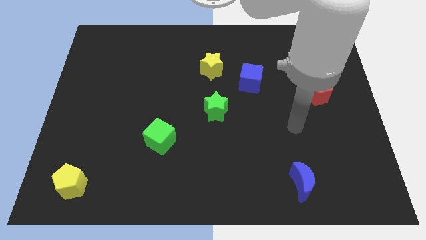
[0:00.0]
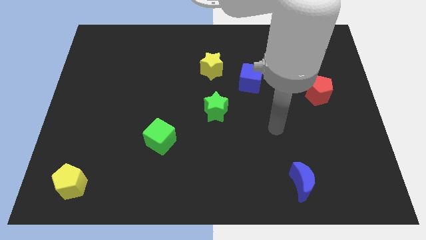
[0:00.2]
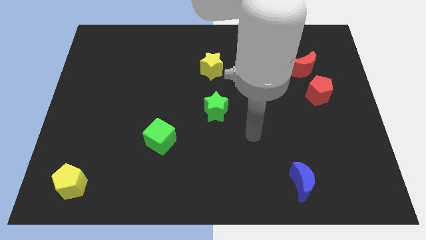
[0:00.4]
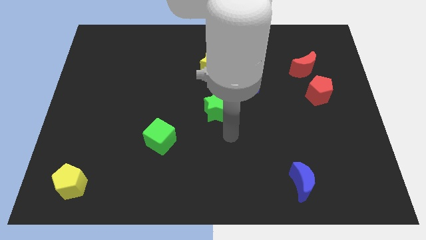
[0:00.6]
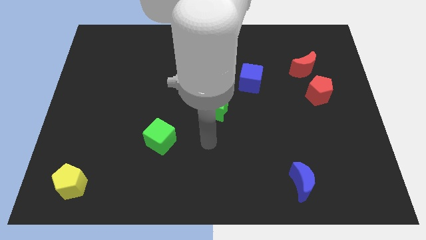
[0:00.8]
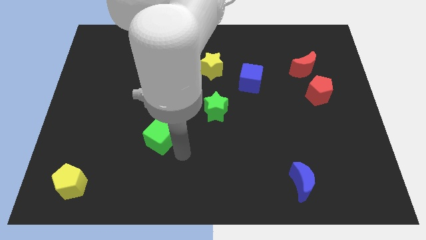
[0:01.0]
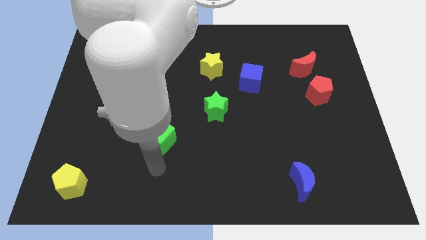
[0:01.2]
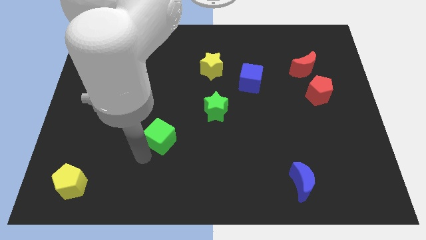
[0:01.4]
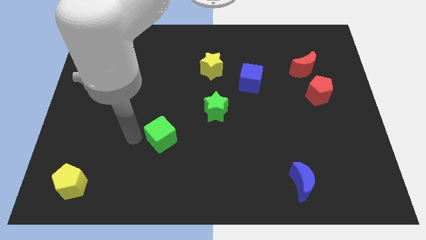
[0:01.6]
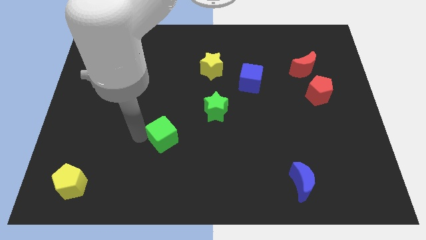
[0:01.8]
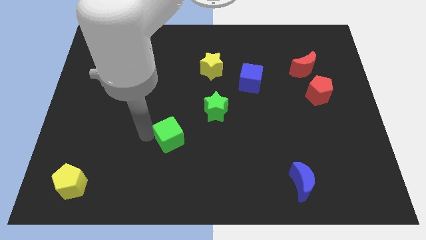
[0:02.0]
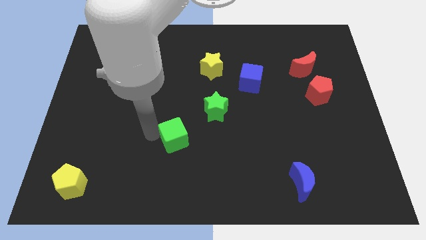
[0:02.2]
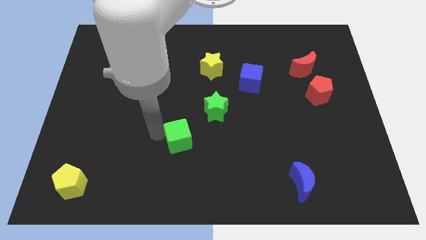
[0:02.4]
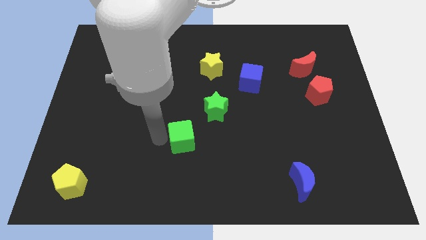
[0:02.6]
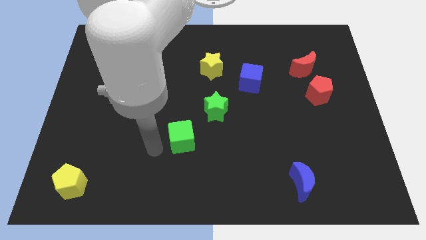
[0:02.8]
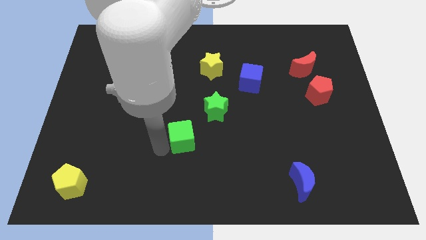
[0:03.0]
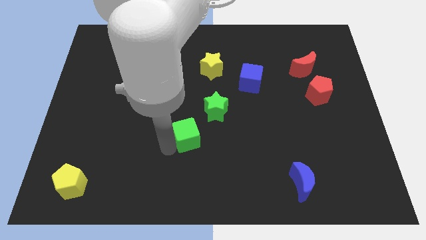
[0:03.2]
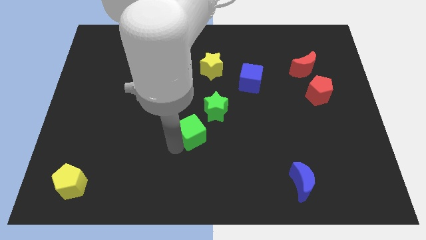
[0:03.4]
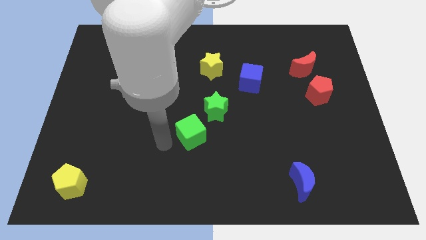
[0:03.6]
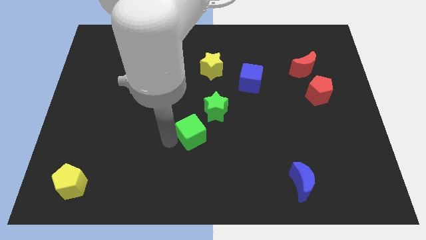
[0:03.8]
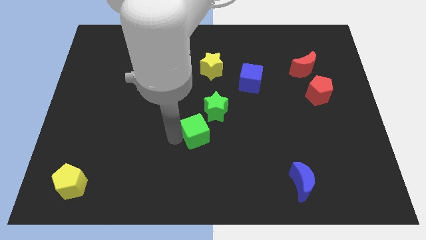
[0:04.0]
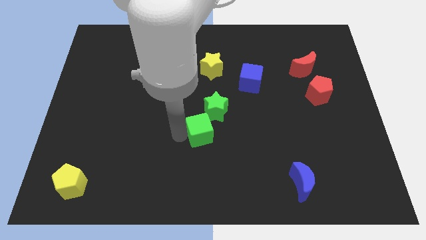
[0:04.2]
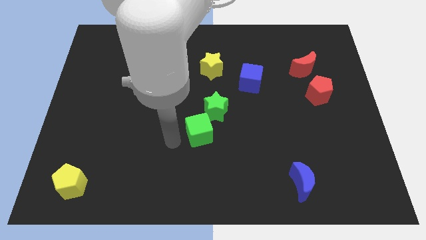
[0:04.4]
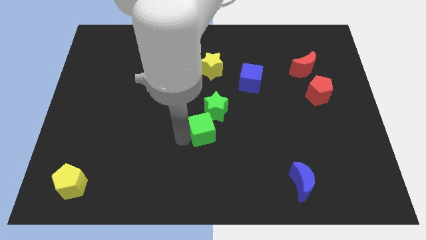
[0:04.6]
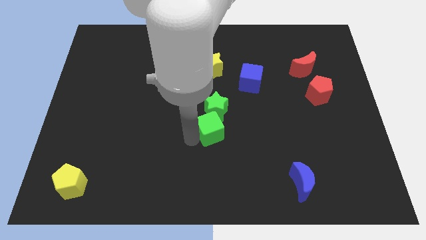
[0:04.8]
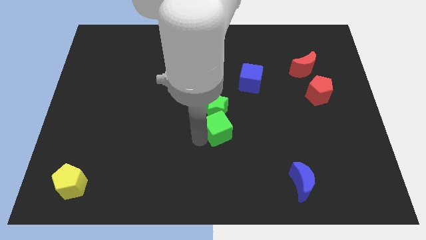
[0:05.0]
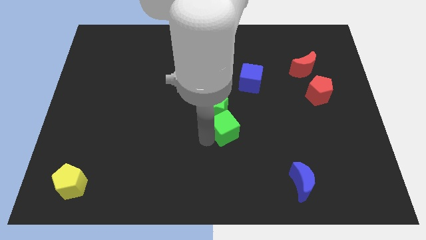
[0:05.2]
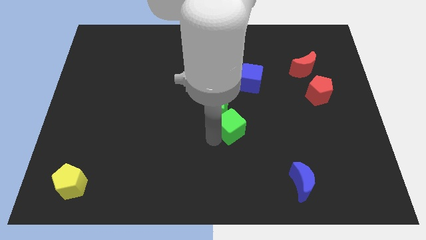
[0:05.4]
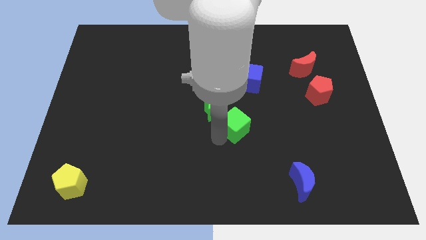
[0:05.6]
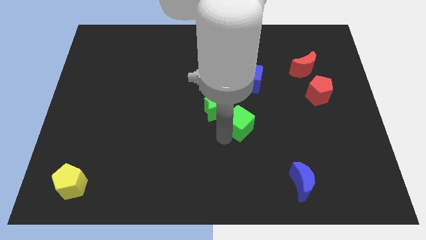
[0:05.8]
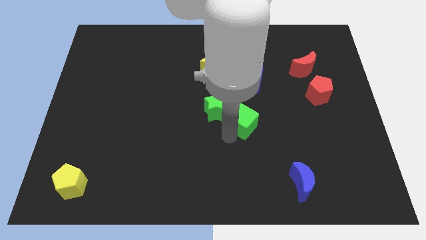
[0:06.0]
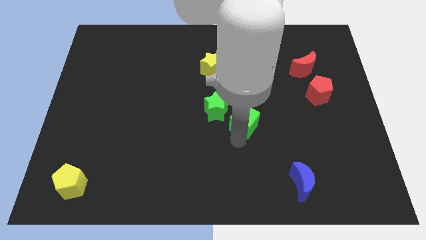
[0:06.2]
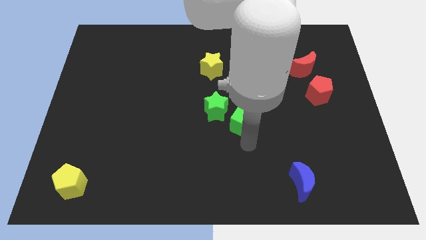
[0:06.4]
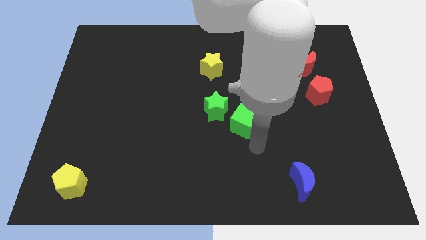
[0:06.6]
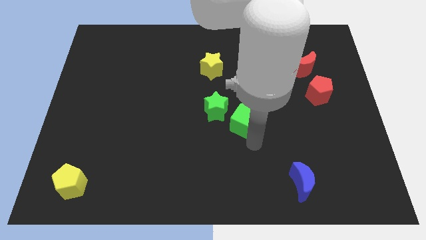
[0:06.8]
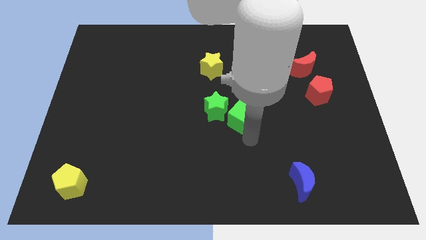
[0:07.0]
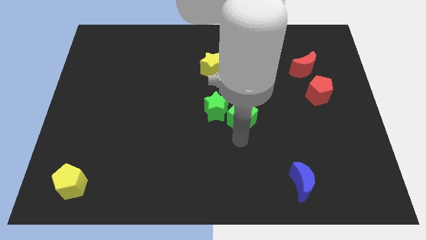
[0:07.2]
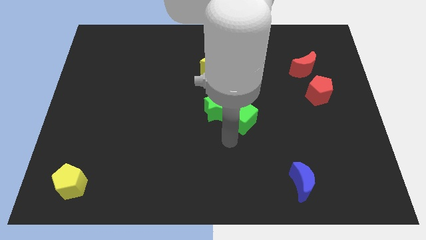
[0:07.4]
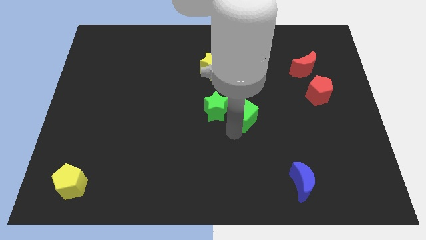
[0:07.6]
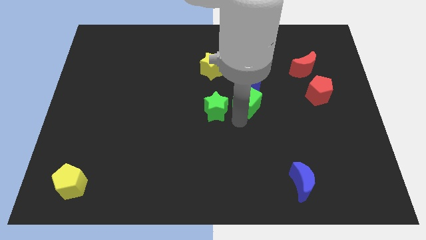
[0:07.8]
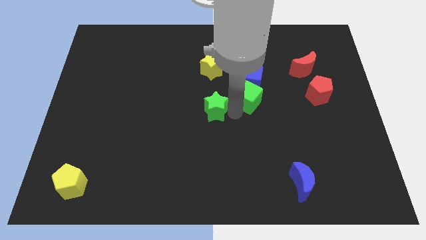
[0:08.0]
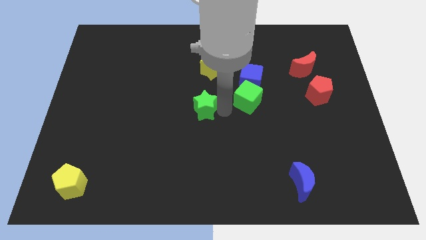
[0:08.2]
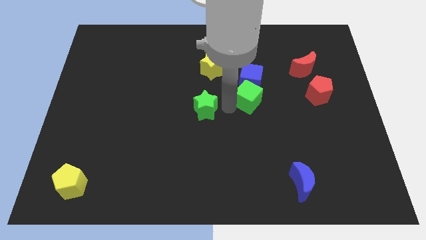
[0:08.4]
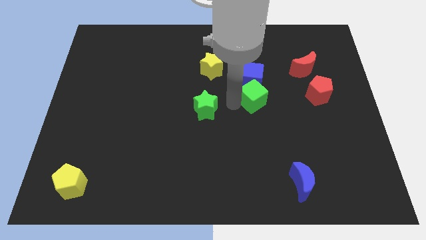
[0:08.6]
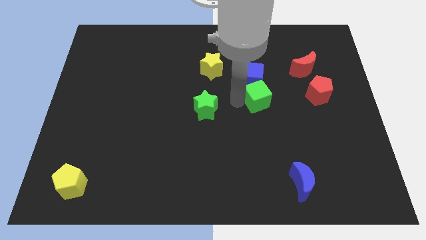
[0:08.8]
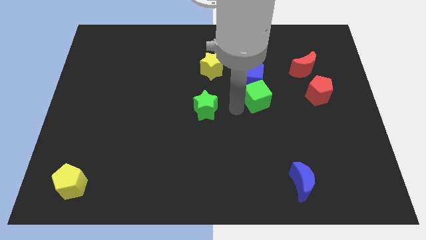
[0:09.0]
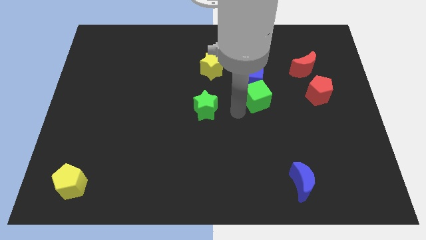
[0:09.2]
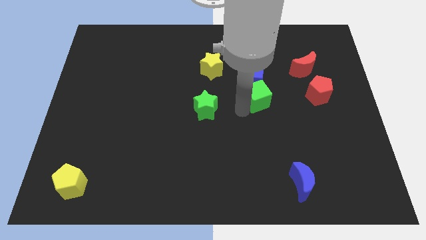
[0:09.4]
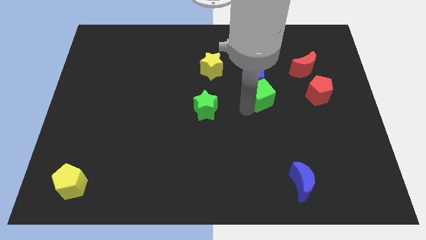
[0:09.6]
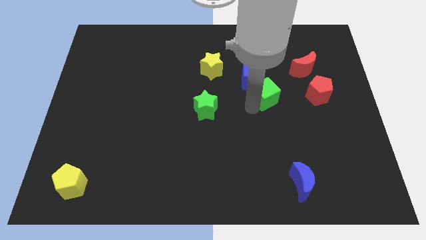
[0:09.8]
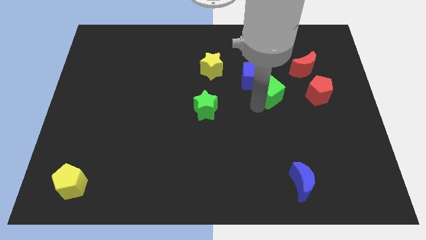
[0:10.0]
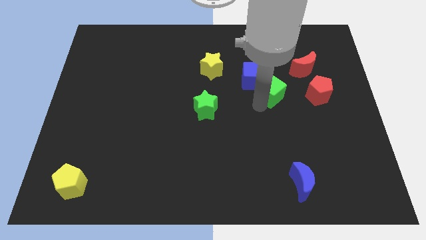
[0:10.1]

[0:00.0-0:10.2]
move the green cube right of the blue cube

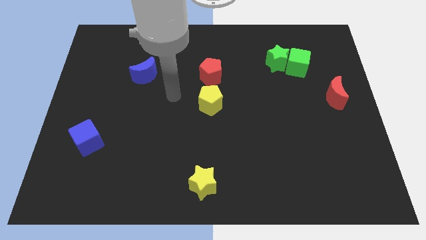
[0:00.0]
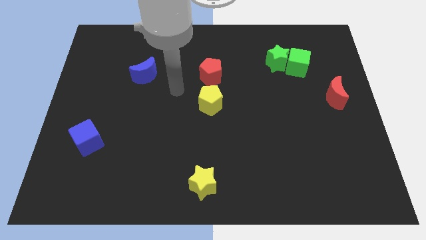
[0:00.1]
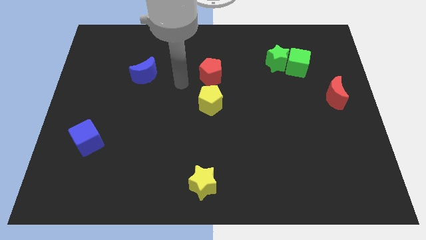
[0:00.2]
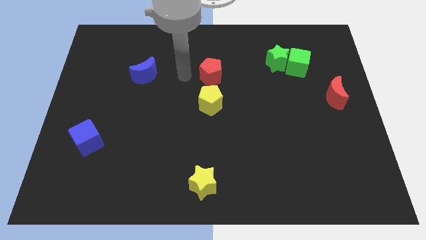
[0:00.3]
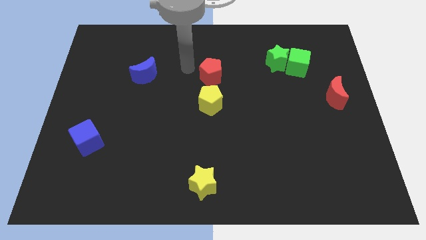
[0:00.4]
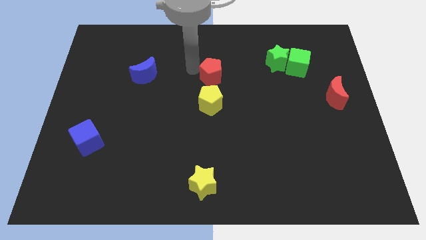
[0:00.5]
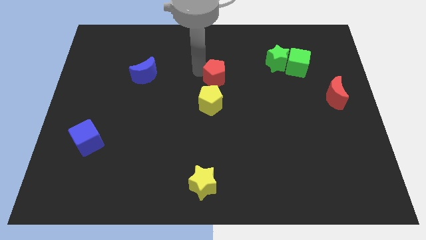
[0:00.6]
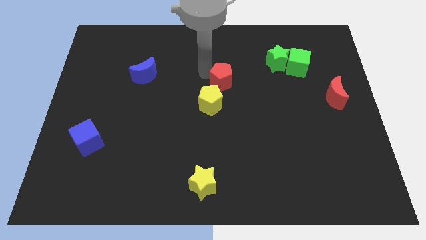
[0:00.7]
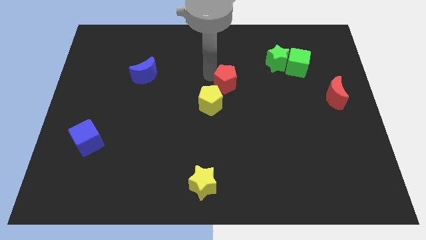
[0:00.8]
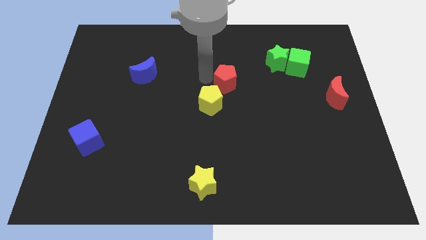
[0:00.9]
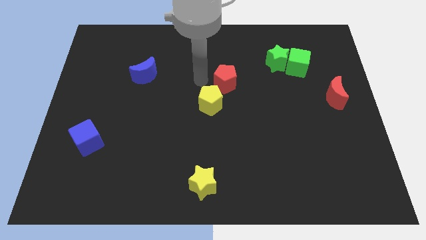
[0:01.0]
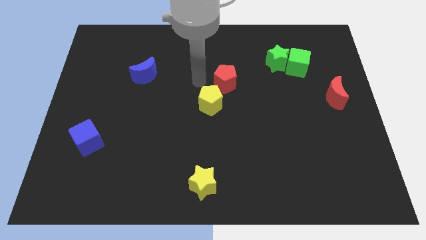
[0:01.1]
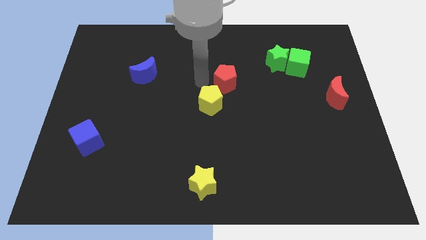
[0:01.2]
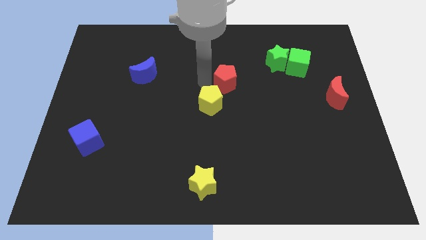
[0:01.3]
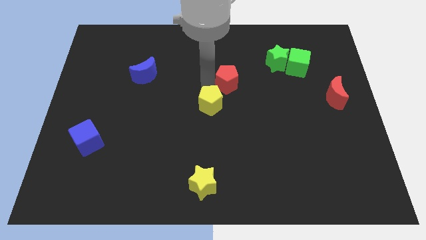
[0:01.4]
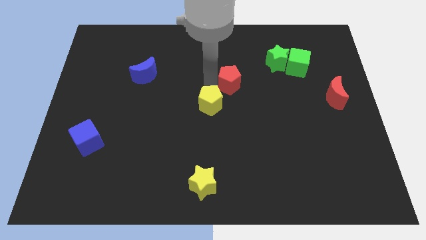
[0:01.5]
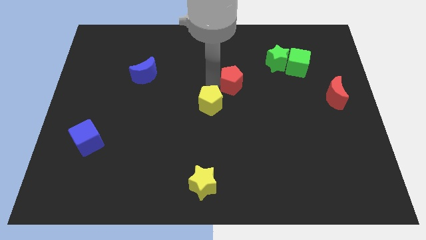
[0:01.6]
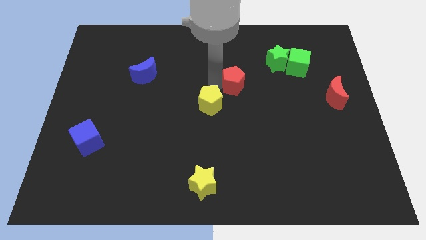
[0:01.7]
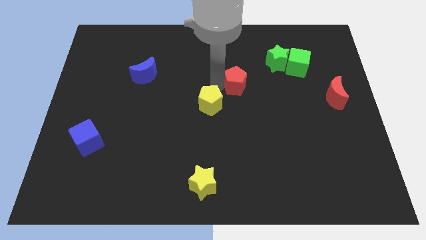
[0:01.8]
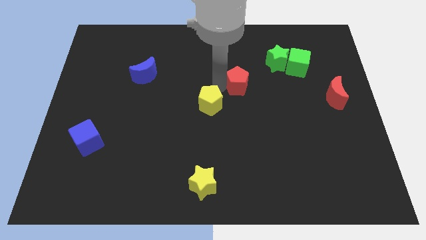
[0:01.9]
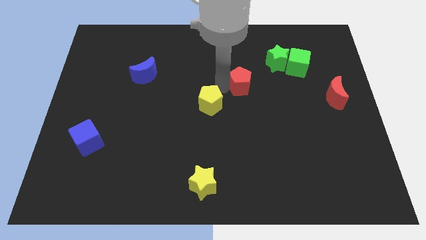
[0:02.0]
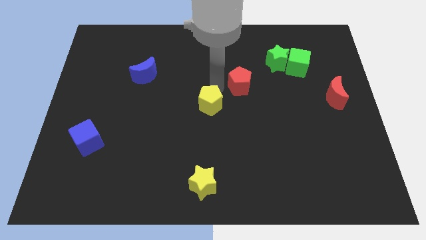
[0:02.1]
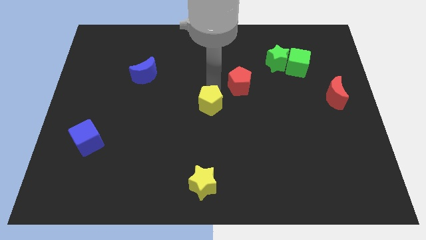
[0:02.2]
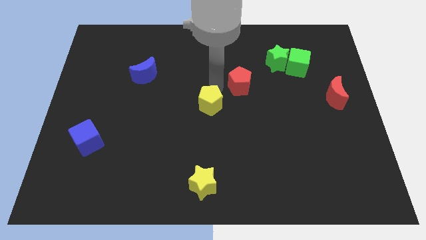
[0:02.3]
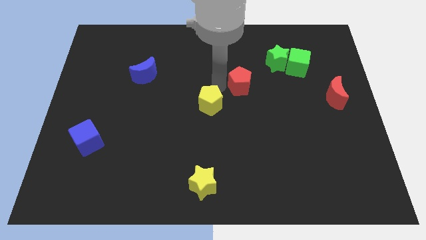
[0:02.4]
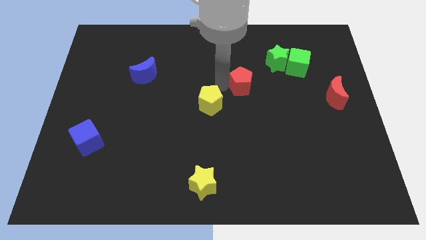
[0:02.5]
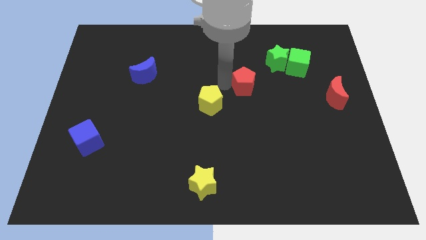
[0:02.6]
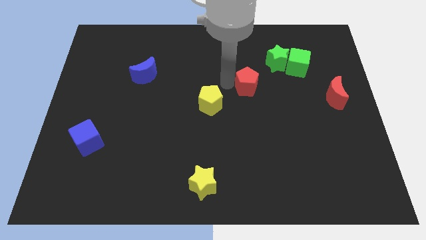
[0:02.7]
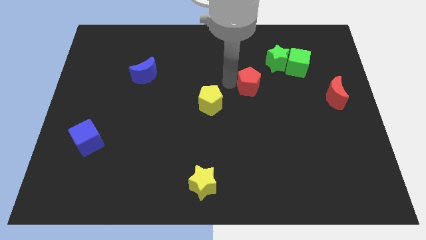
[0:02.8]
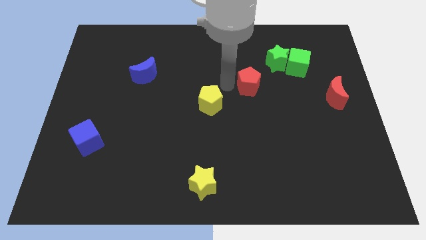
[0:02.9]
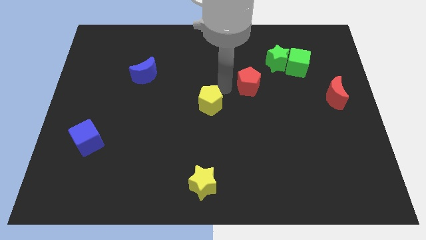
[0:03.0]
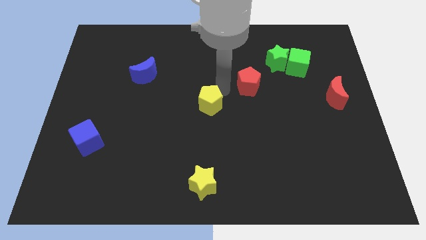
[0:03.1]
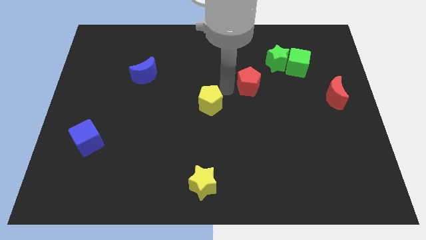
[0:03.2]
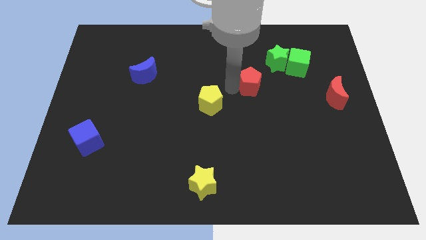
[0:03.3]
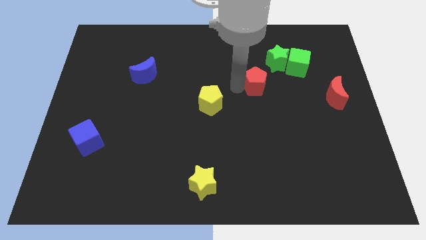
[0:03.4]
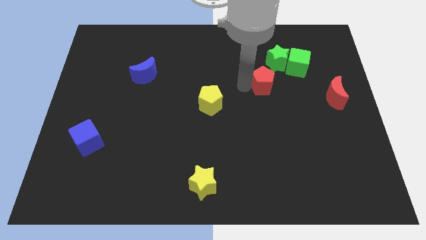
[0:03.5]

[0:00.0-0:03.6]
push the red pentagon to the bottom left side of the green cube
